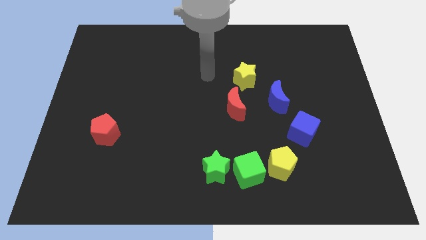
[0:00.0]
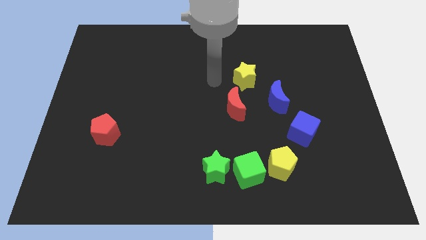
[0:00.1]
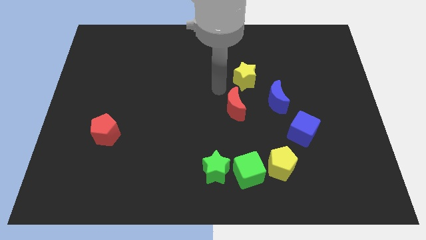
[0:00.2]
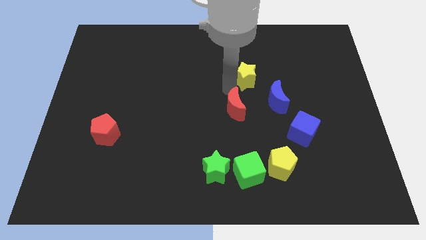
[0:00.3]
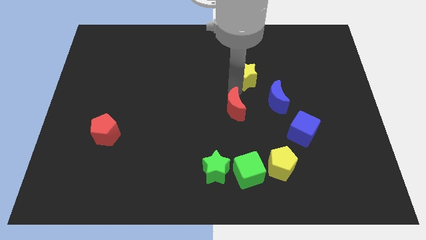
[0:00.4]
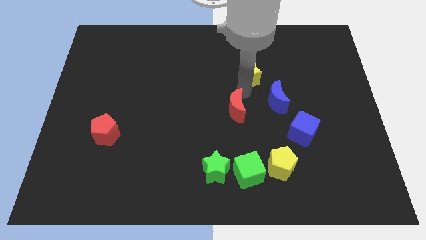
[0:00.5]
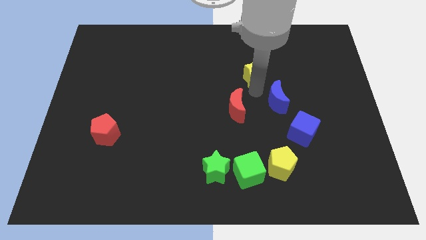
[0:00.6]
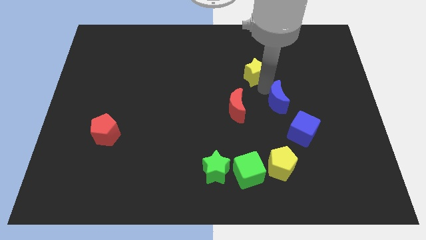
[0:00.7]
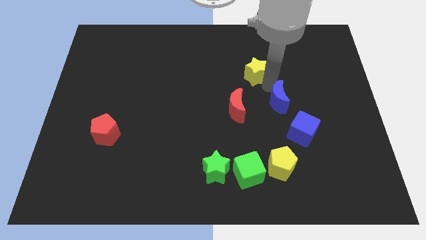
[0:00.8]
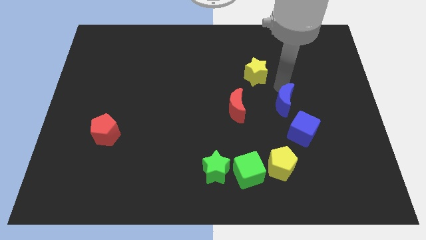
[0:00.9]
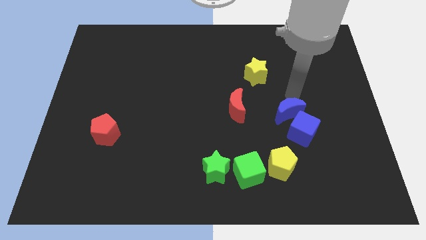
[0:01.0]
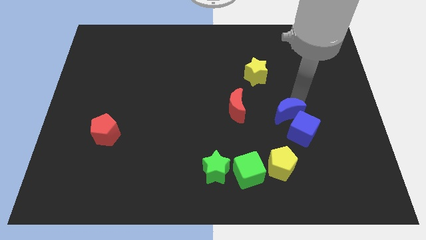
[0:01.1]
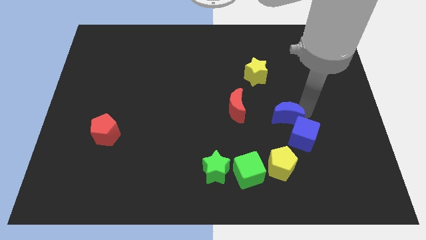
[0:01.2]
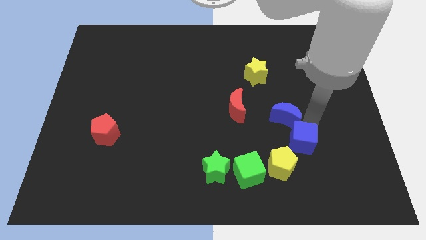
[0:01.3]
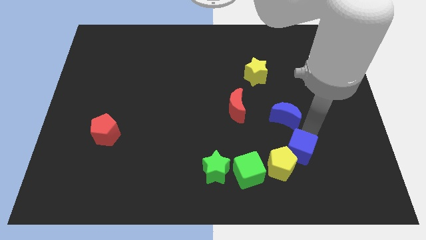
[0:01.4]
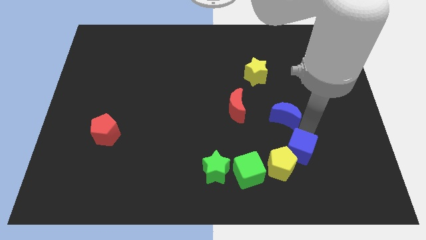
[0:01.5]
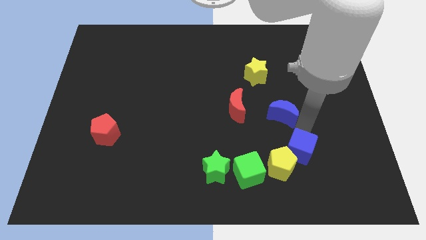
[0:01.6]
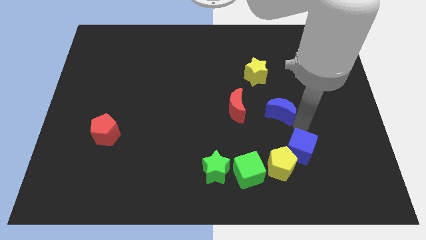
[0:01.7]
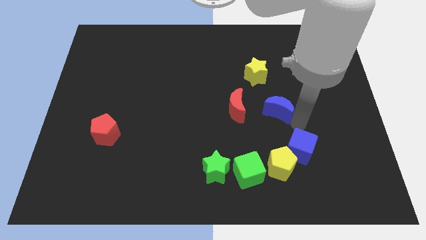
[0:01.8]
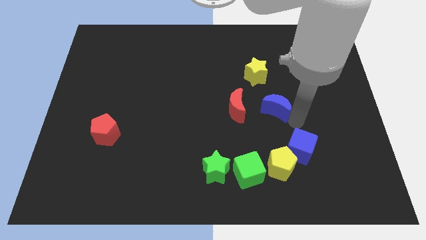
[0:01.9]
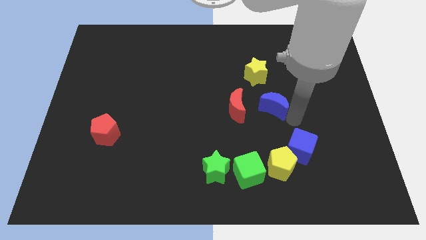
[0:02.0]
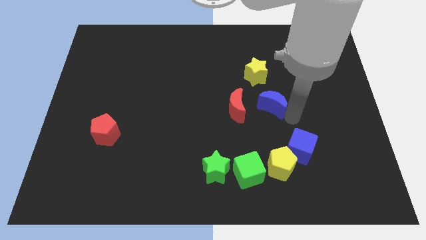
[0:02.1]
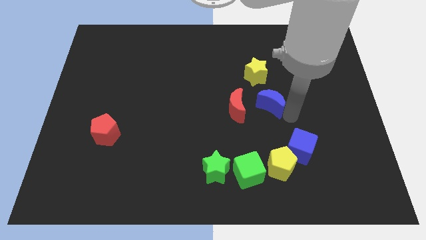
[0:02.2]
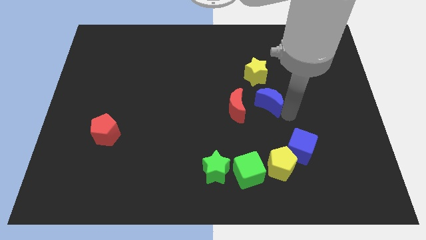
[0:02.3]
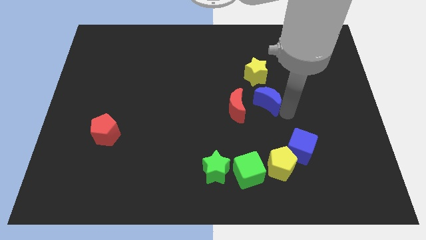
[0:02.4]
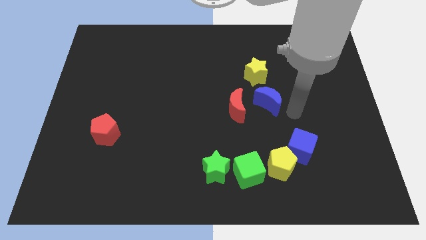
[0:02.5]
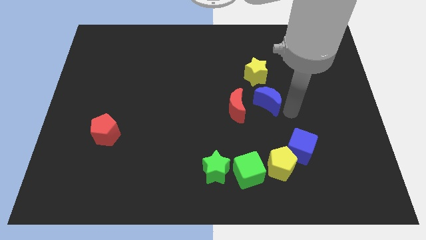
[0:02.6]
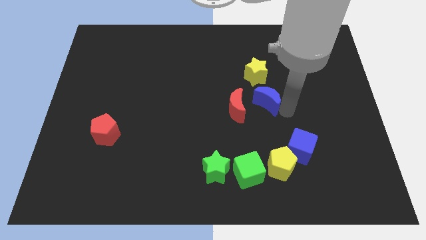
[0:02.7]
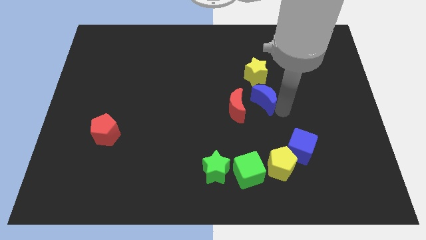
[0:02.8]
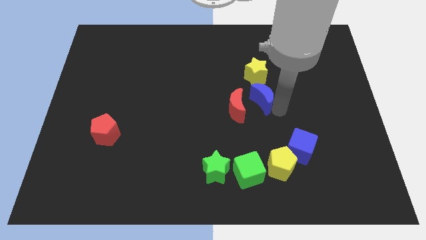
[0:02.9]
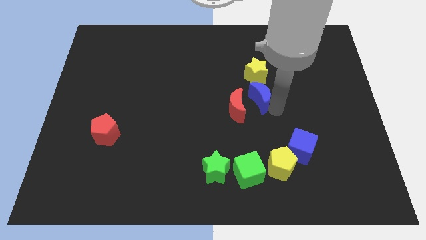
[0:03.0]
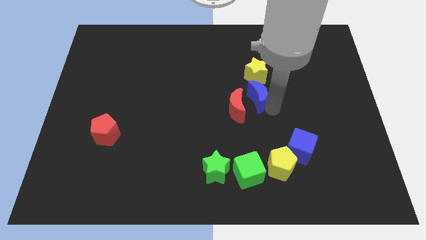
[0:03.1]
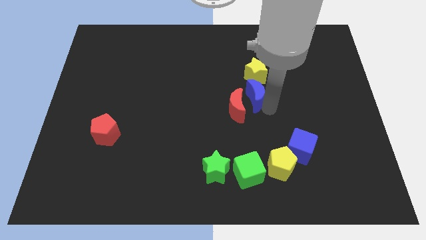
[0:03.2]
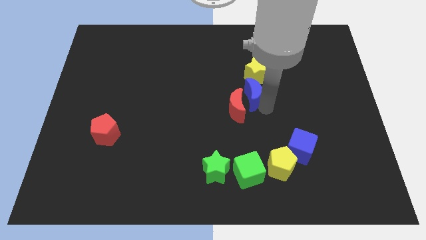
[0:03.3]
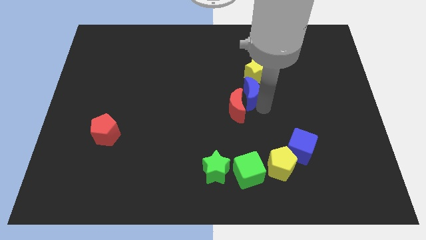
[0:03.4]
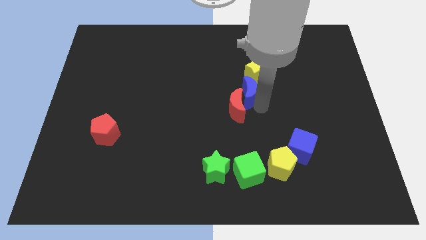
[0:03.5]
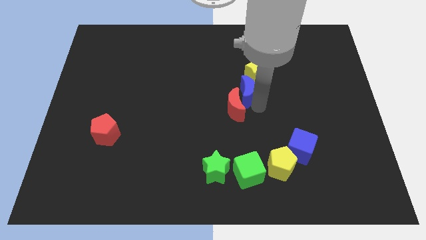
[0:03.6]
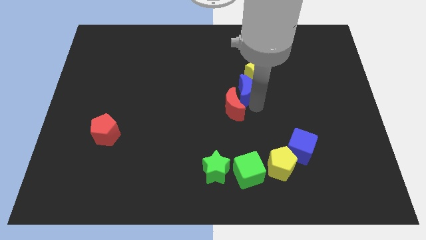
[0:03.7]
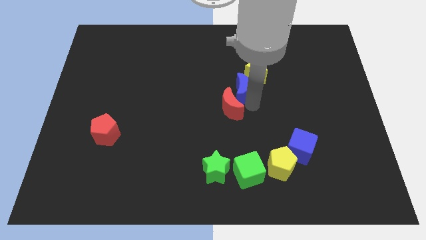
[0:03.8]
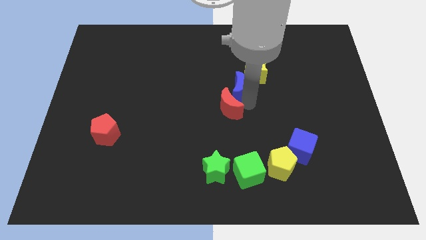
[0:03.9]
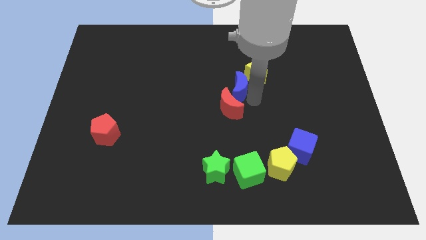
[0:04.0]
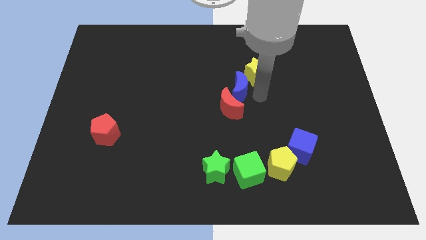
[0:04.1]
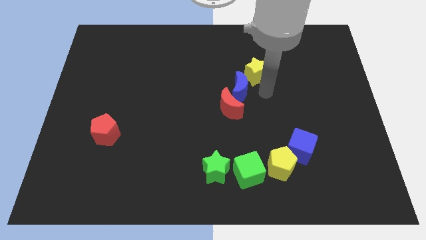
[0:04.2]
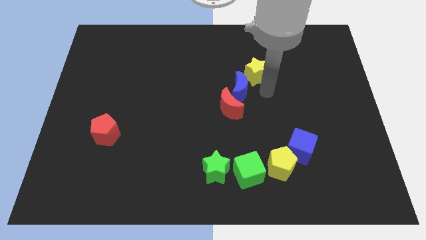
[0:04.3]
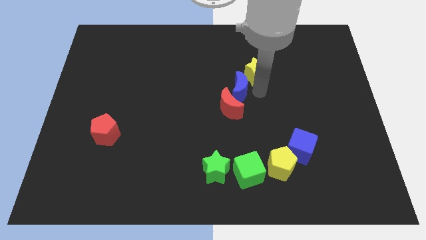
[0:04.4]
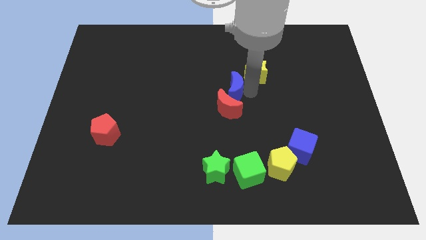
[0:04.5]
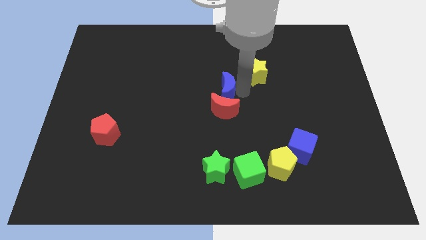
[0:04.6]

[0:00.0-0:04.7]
move the blue moon diagonally up and to the left of the red moon

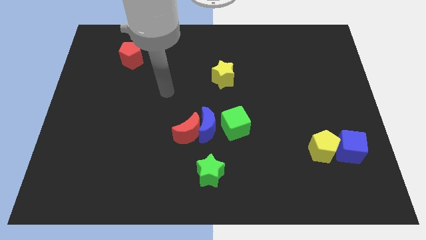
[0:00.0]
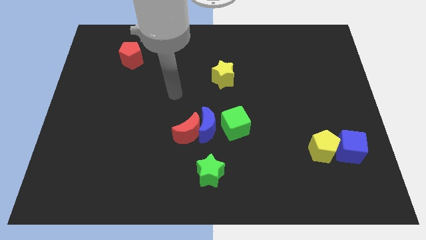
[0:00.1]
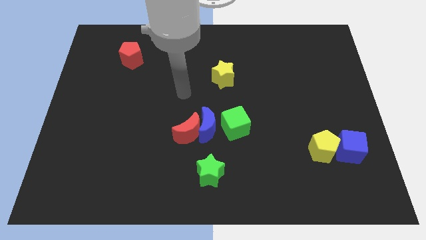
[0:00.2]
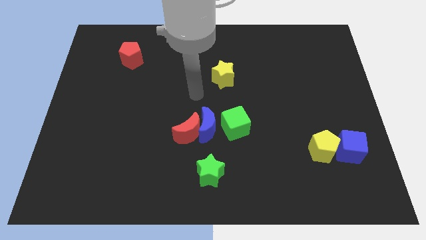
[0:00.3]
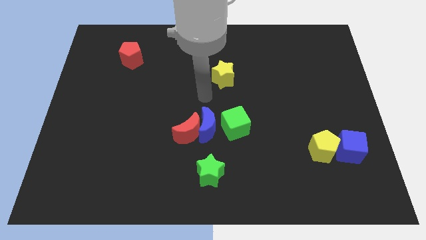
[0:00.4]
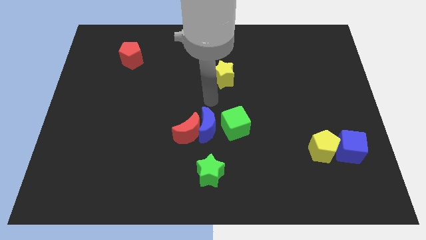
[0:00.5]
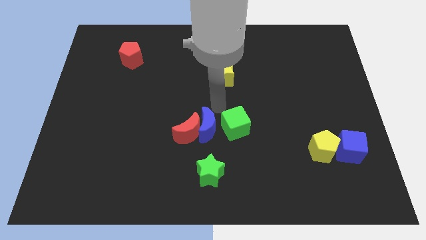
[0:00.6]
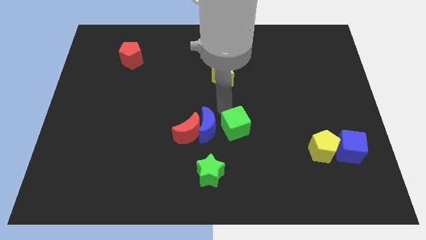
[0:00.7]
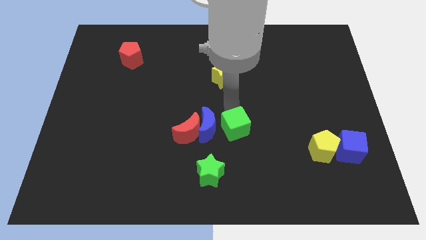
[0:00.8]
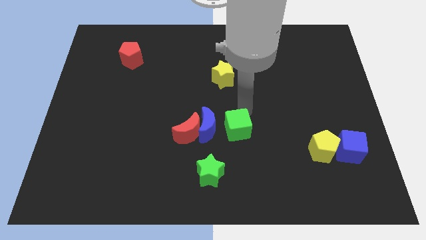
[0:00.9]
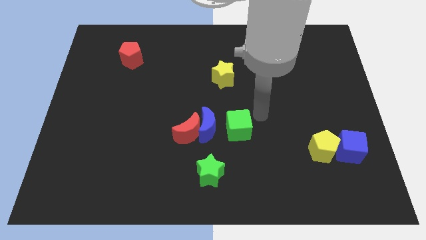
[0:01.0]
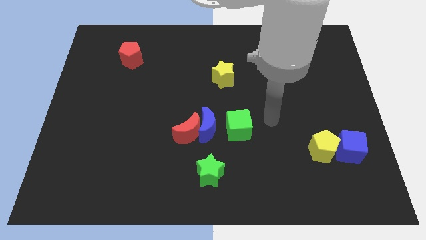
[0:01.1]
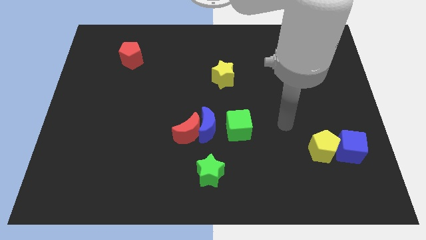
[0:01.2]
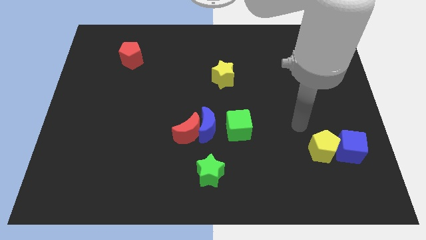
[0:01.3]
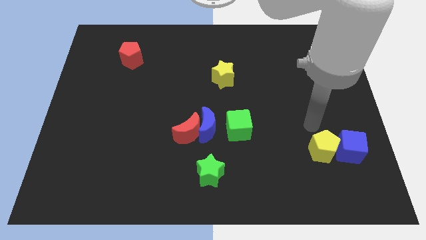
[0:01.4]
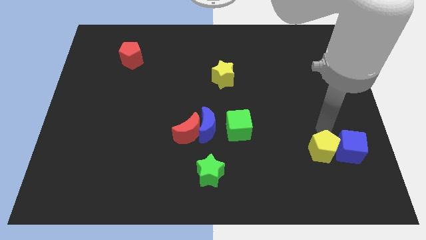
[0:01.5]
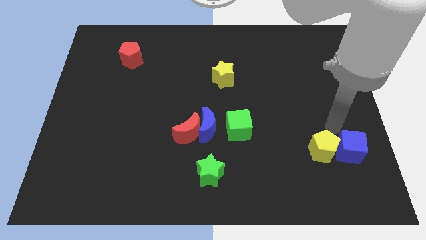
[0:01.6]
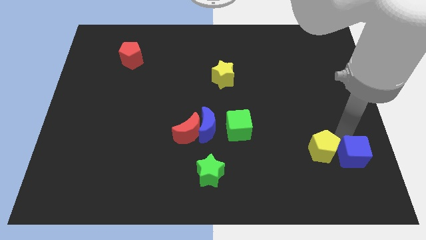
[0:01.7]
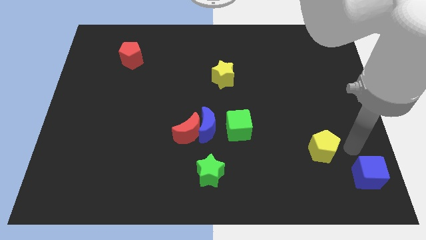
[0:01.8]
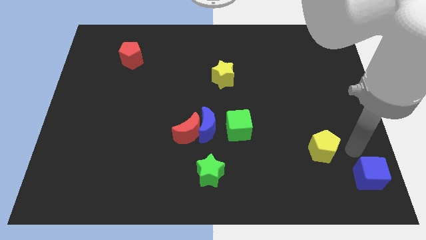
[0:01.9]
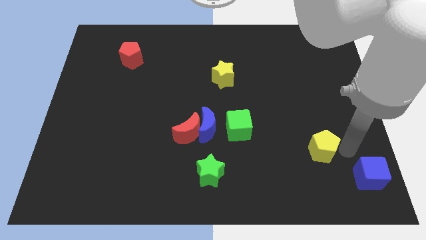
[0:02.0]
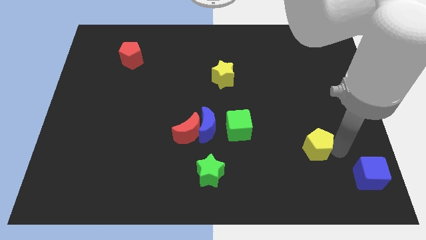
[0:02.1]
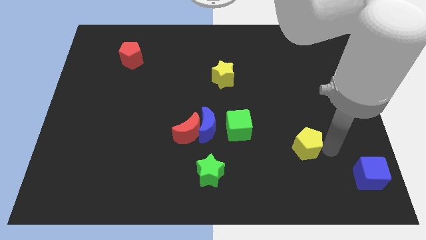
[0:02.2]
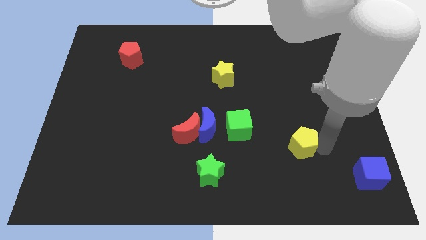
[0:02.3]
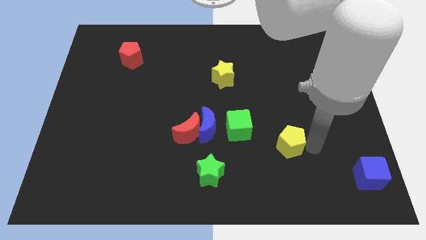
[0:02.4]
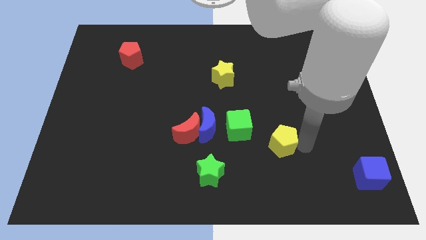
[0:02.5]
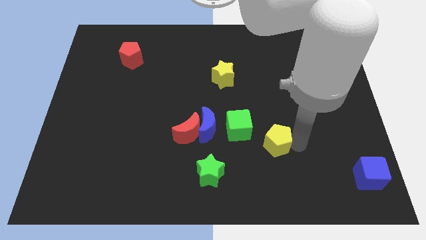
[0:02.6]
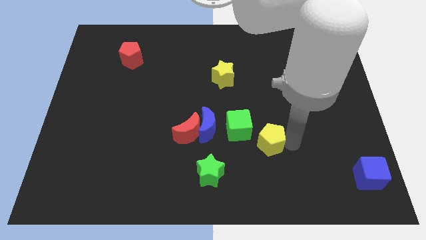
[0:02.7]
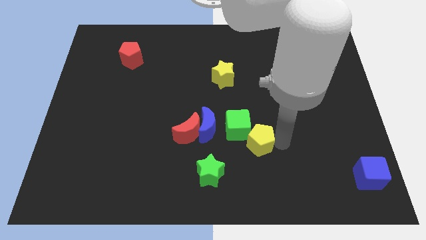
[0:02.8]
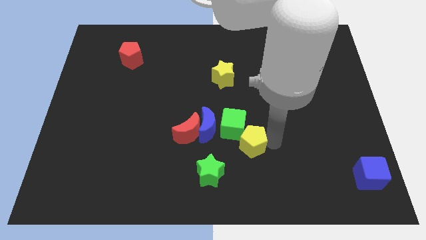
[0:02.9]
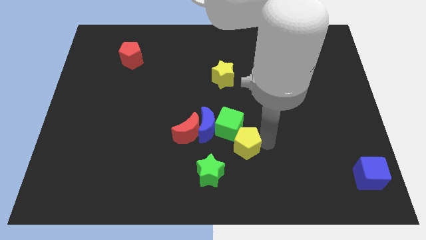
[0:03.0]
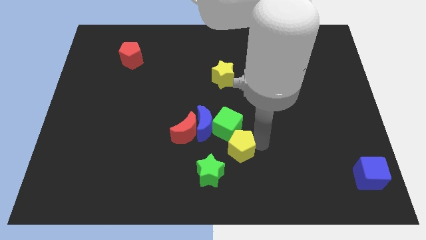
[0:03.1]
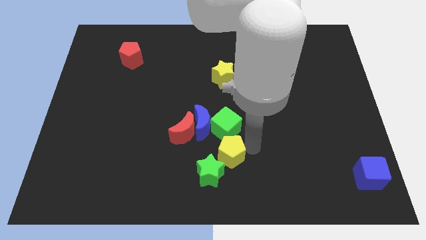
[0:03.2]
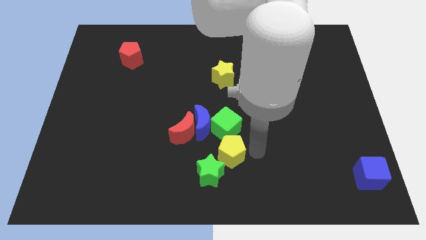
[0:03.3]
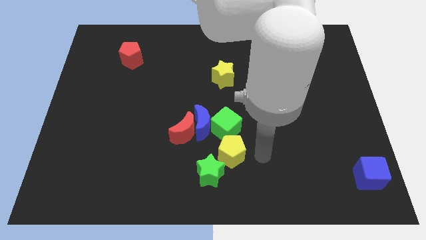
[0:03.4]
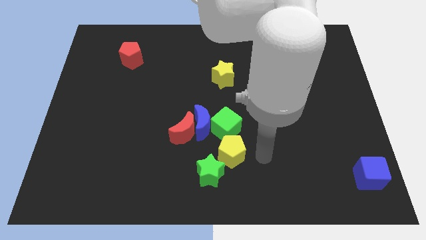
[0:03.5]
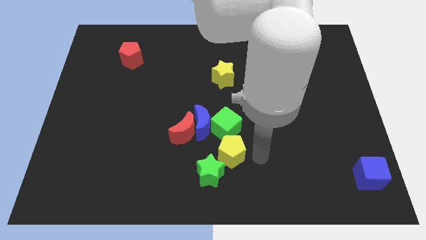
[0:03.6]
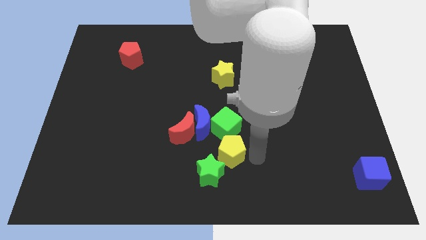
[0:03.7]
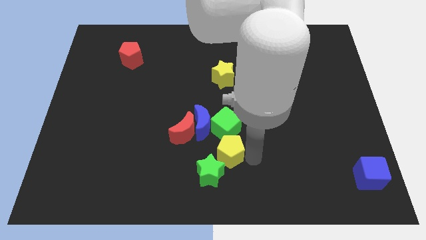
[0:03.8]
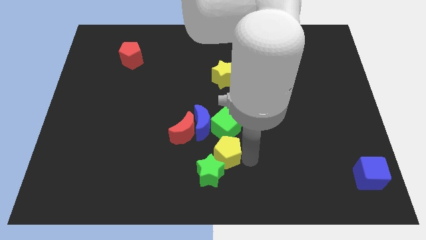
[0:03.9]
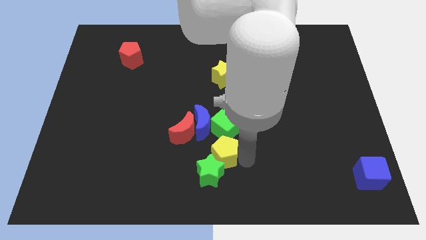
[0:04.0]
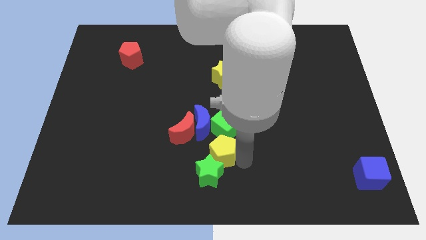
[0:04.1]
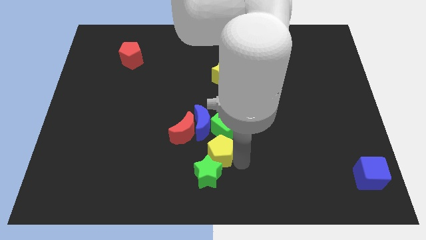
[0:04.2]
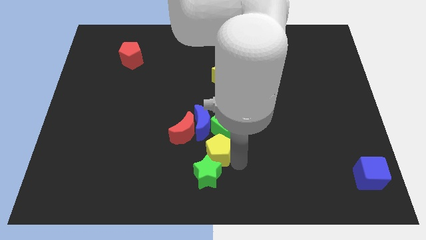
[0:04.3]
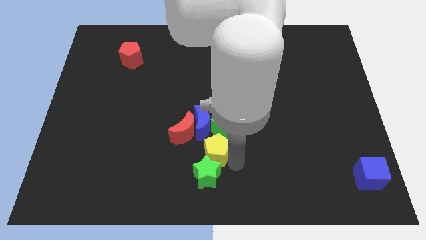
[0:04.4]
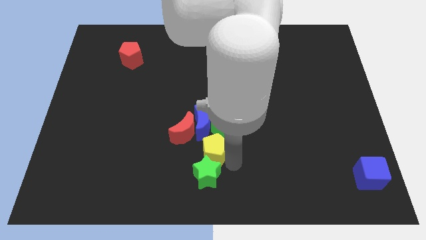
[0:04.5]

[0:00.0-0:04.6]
push the yellow pentagon to the top left side of the green star
